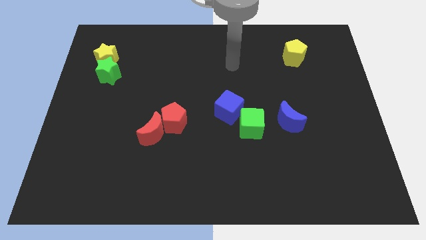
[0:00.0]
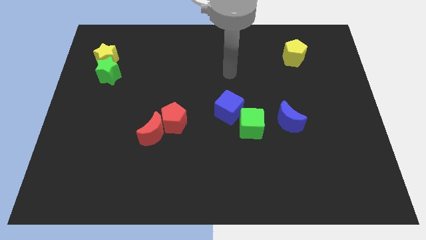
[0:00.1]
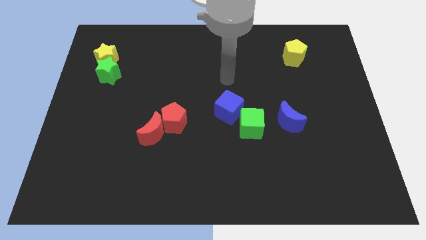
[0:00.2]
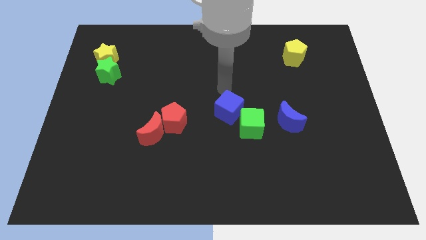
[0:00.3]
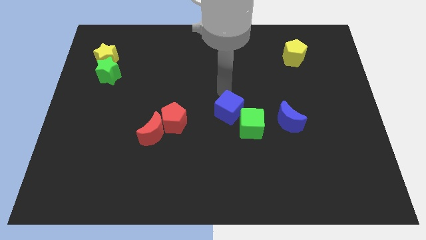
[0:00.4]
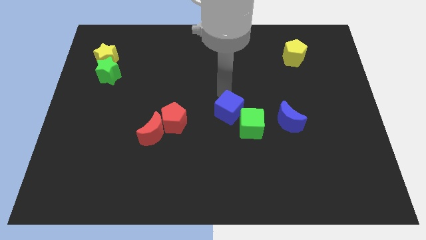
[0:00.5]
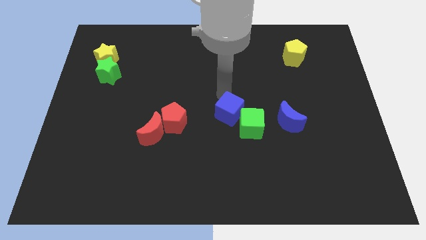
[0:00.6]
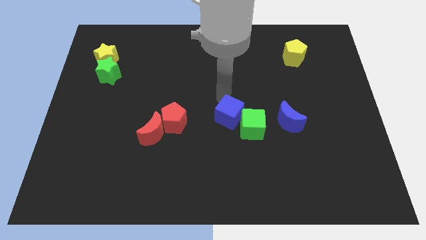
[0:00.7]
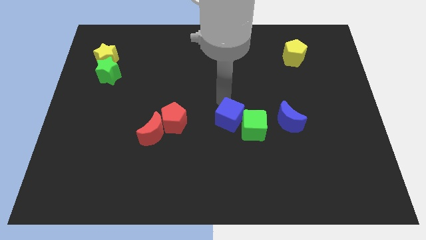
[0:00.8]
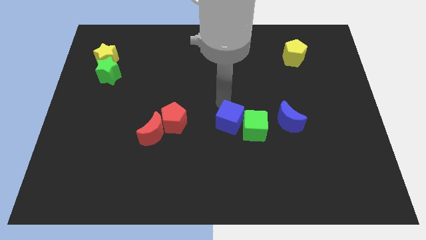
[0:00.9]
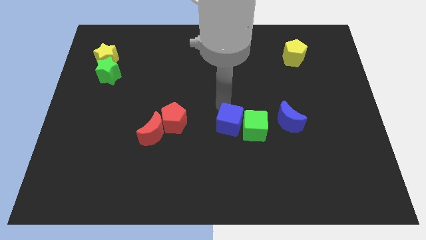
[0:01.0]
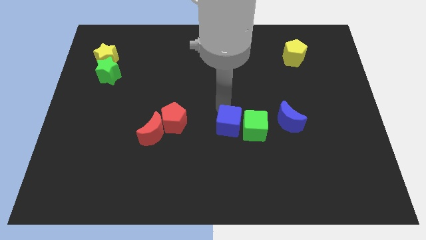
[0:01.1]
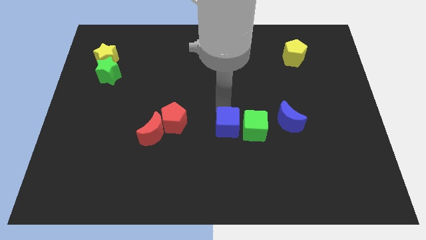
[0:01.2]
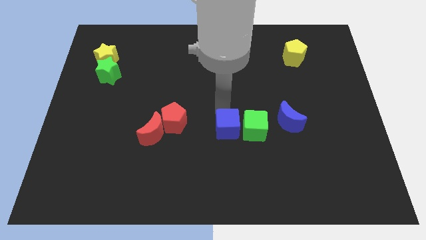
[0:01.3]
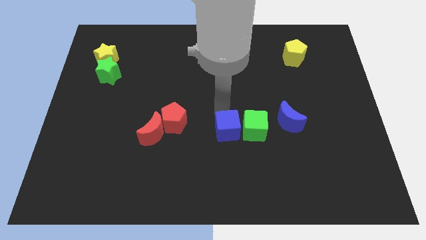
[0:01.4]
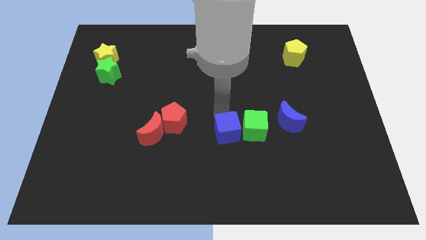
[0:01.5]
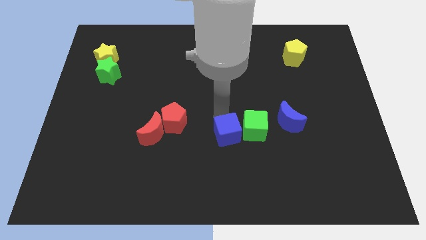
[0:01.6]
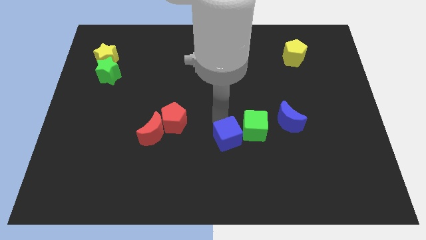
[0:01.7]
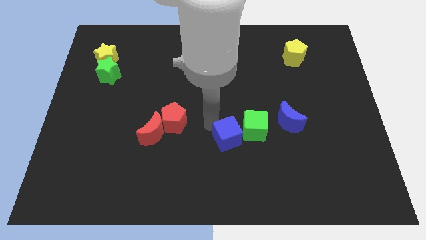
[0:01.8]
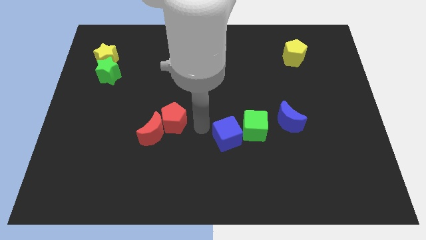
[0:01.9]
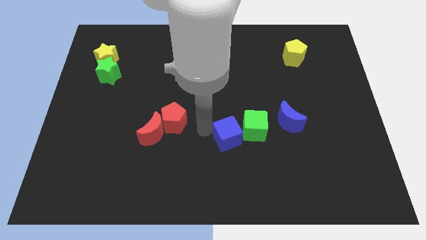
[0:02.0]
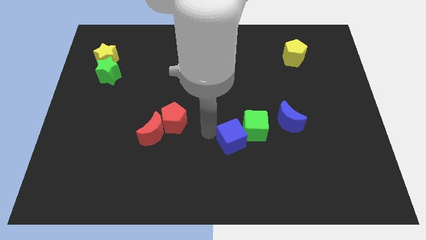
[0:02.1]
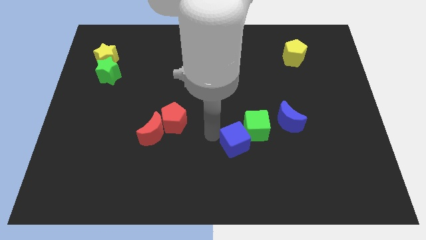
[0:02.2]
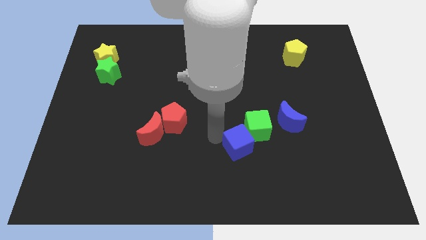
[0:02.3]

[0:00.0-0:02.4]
slightly slide the blue cube downwards and then right

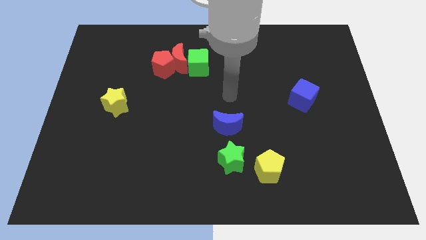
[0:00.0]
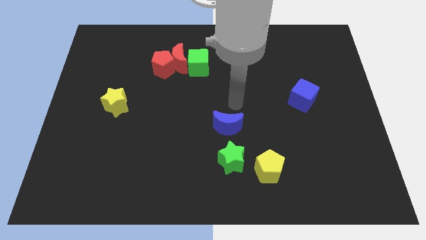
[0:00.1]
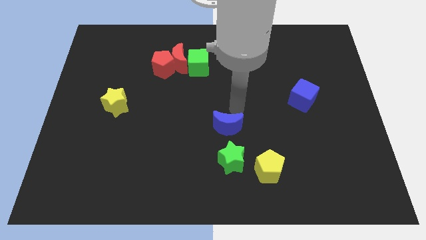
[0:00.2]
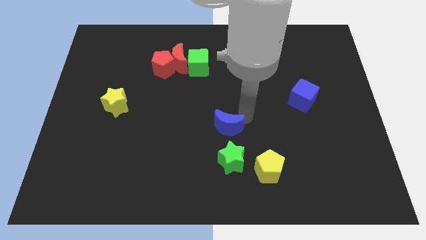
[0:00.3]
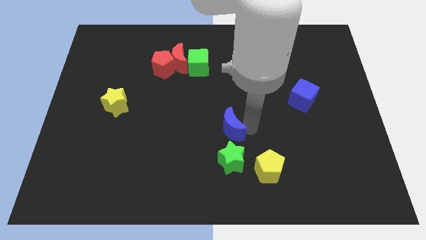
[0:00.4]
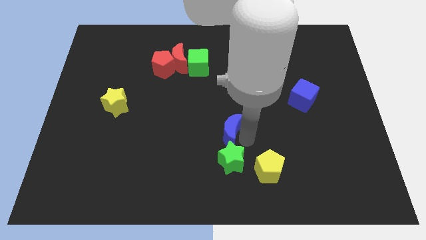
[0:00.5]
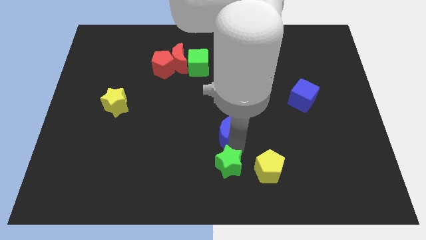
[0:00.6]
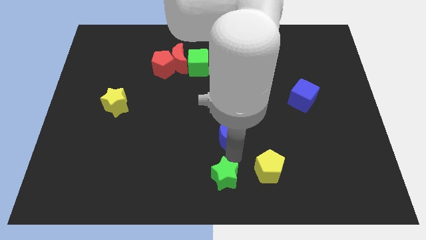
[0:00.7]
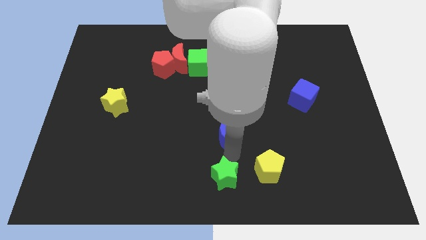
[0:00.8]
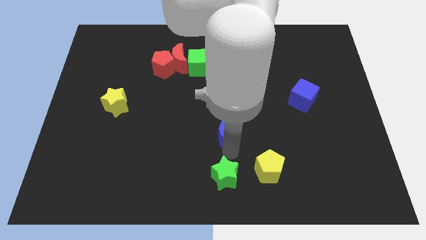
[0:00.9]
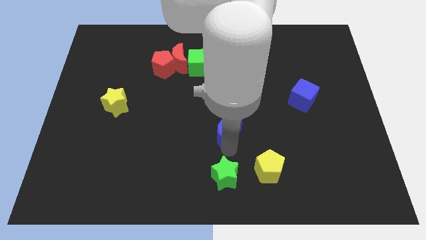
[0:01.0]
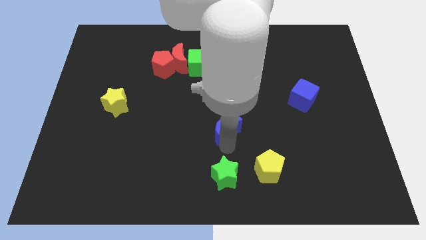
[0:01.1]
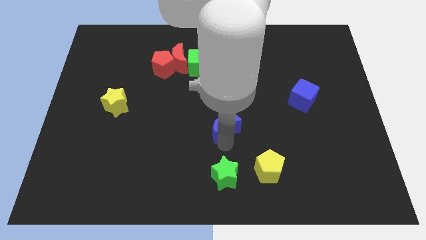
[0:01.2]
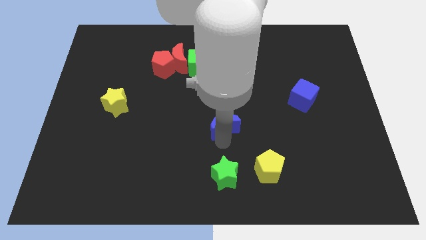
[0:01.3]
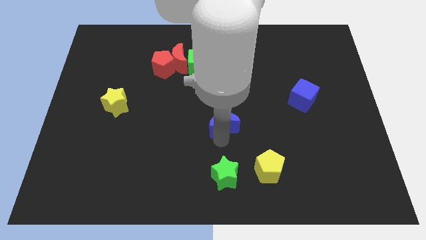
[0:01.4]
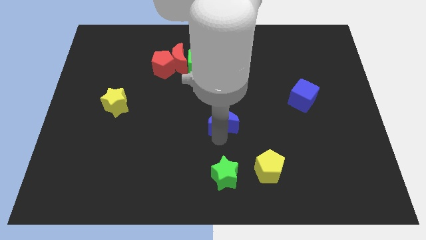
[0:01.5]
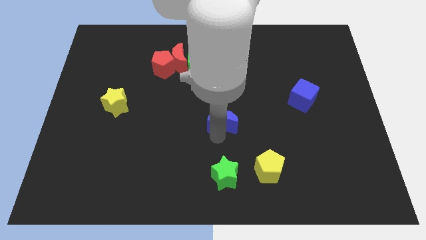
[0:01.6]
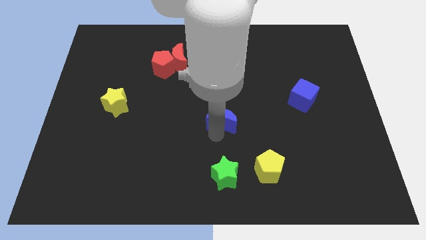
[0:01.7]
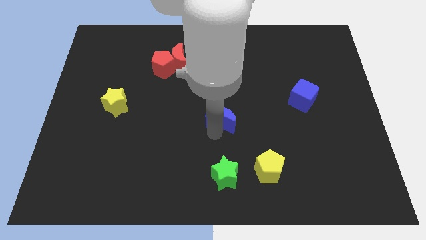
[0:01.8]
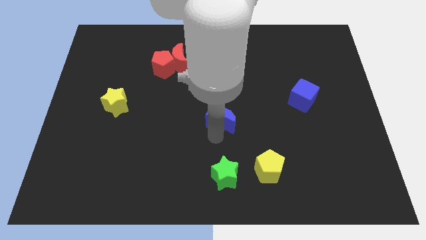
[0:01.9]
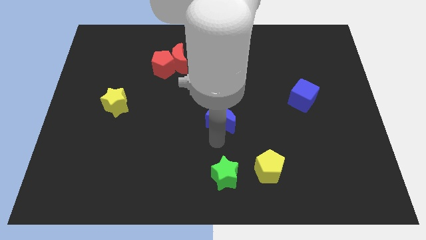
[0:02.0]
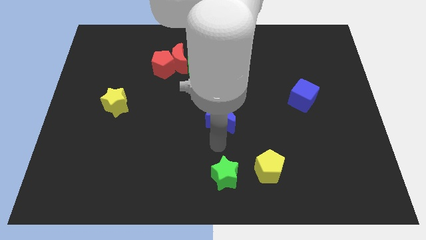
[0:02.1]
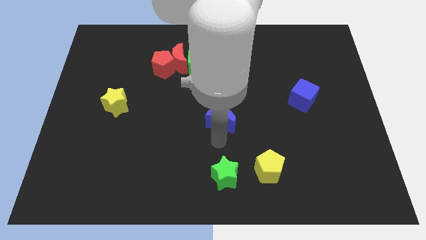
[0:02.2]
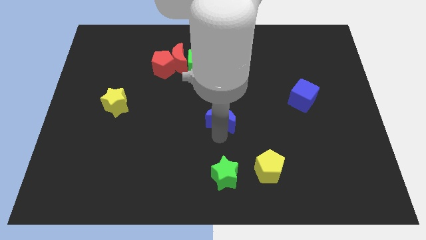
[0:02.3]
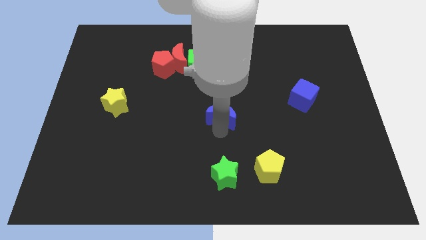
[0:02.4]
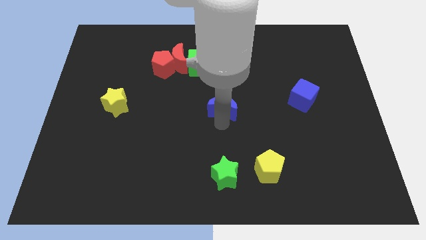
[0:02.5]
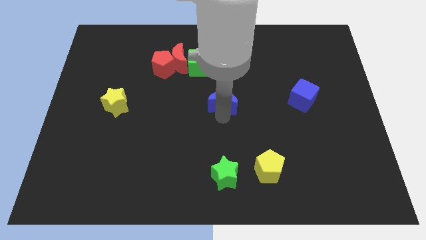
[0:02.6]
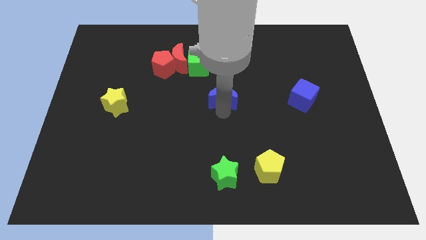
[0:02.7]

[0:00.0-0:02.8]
move the blue moon slightly up

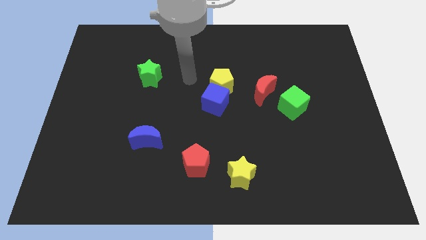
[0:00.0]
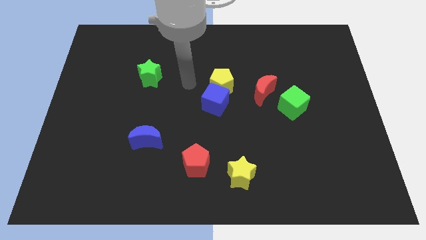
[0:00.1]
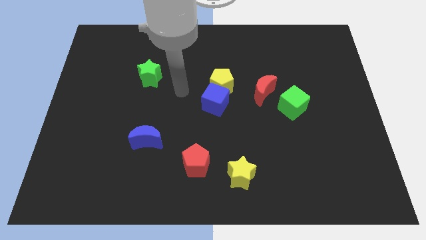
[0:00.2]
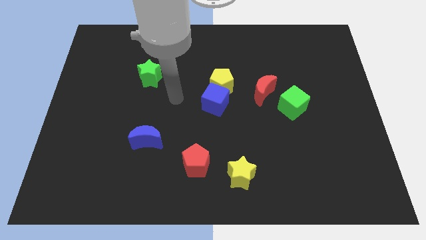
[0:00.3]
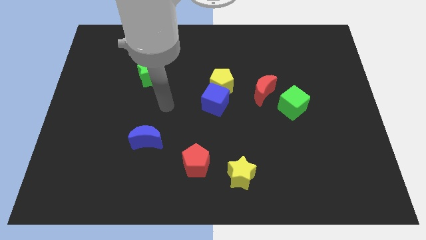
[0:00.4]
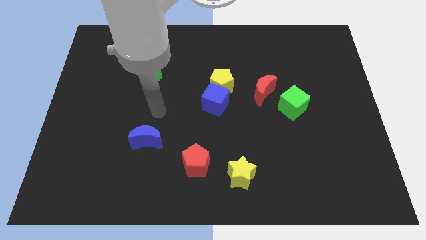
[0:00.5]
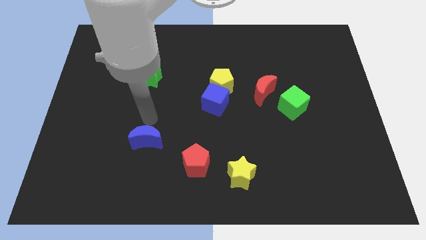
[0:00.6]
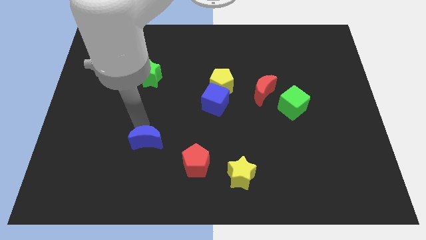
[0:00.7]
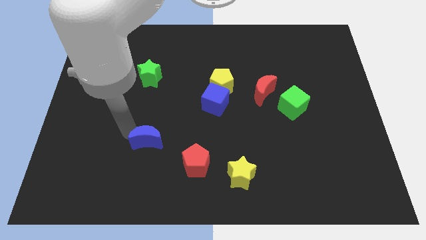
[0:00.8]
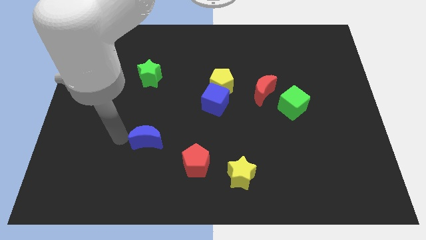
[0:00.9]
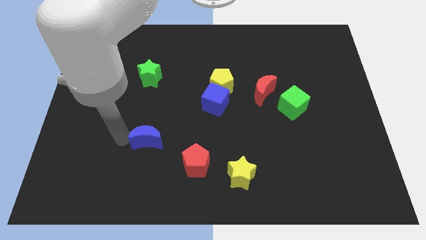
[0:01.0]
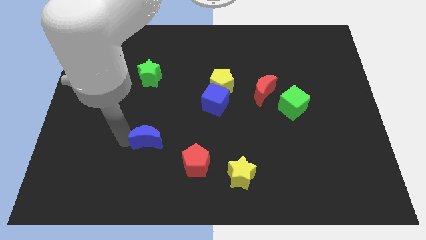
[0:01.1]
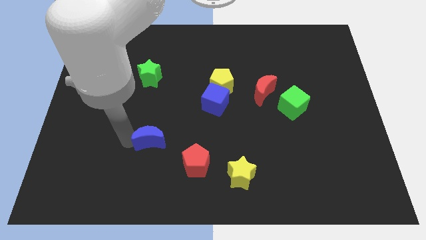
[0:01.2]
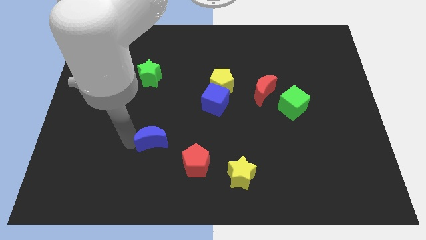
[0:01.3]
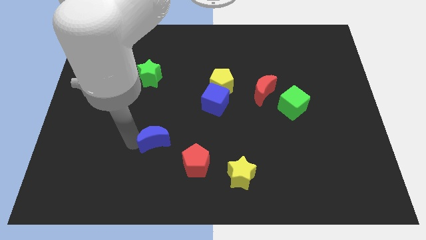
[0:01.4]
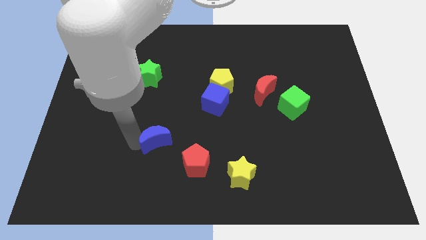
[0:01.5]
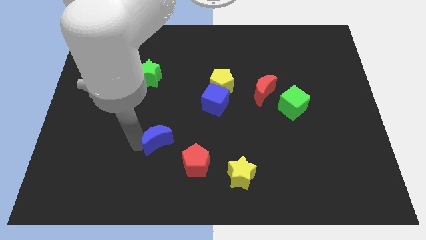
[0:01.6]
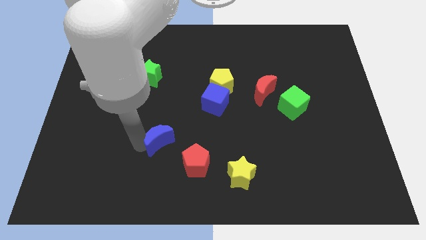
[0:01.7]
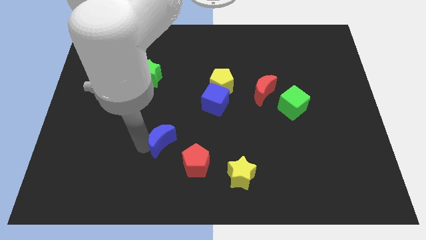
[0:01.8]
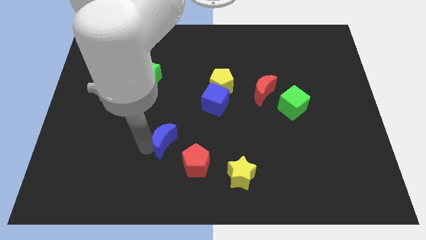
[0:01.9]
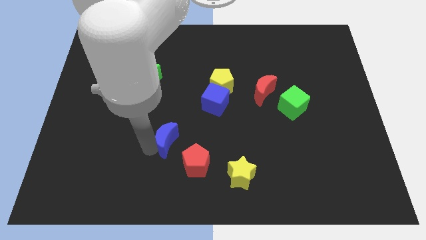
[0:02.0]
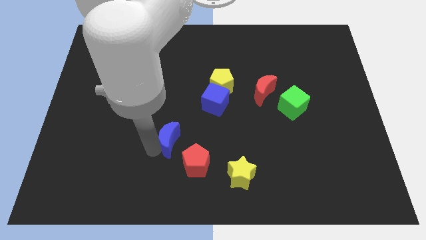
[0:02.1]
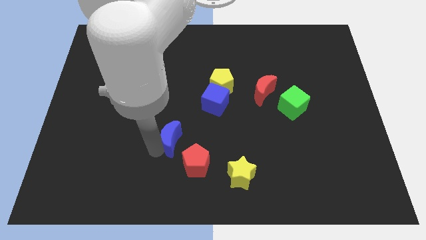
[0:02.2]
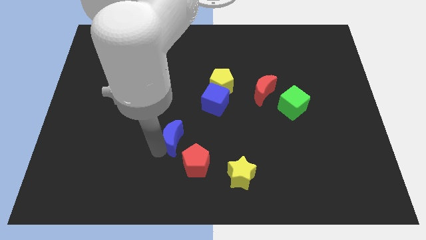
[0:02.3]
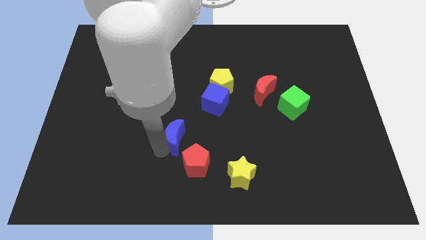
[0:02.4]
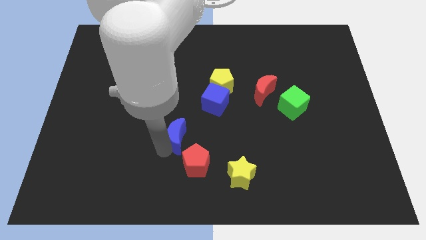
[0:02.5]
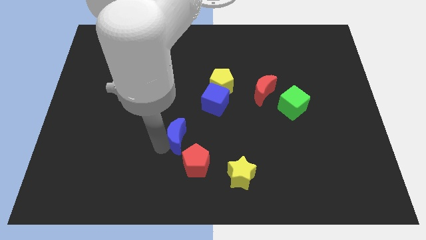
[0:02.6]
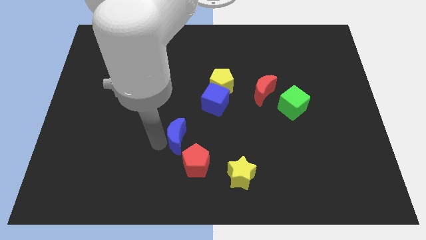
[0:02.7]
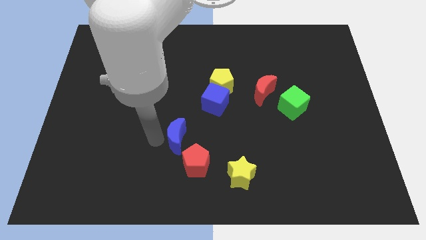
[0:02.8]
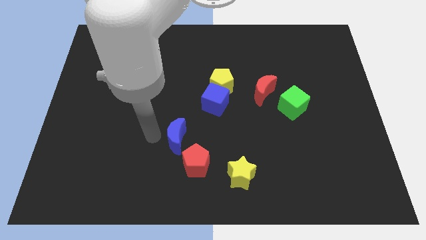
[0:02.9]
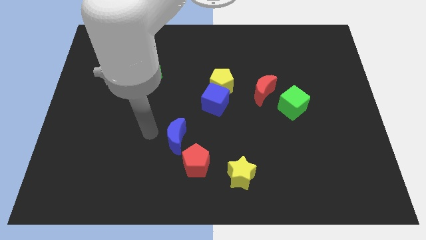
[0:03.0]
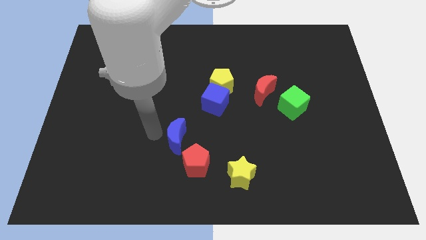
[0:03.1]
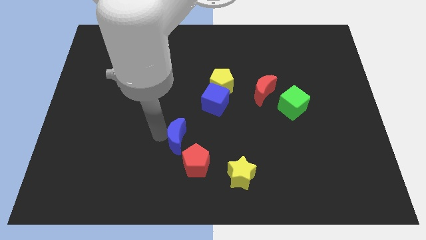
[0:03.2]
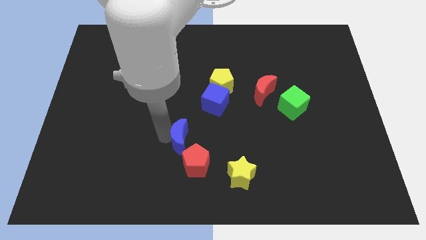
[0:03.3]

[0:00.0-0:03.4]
move the blue moon right a little
